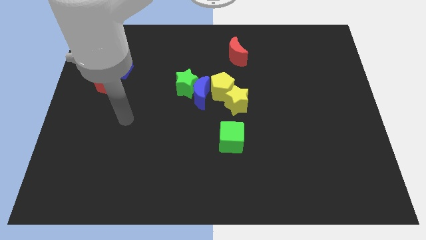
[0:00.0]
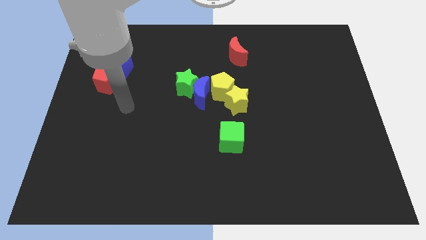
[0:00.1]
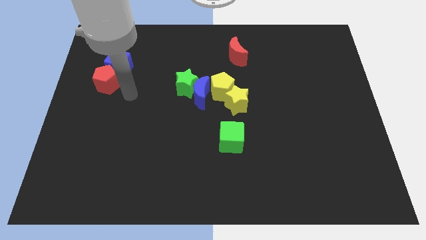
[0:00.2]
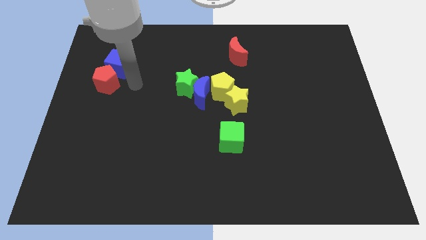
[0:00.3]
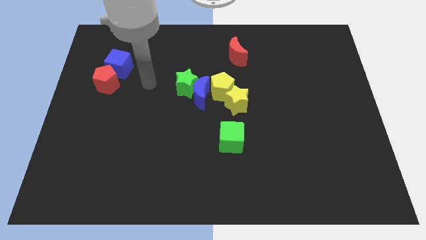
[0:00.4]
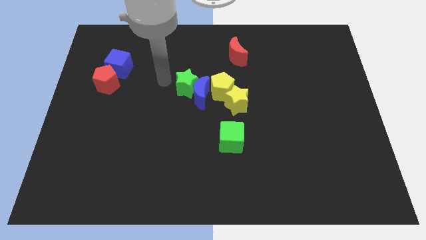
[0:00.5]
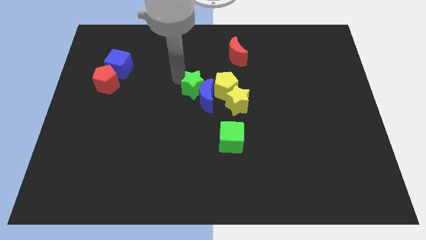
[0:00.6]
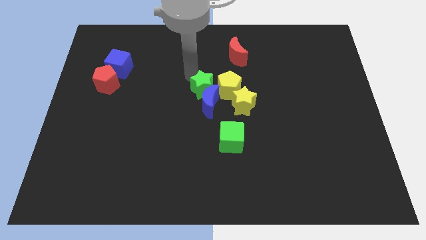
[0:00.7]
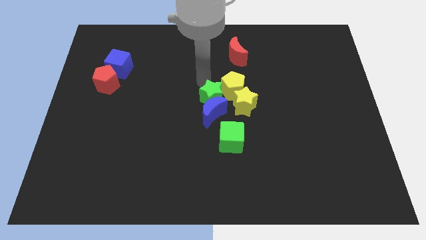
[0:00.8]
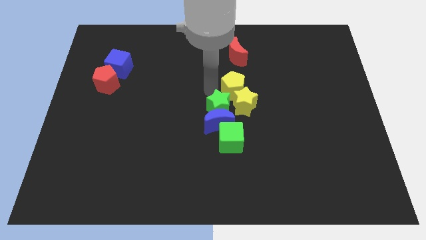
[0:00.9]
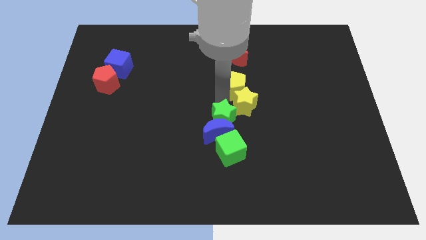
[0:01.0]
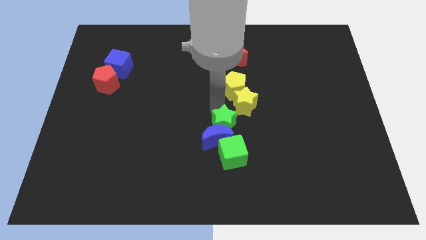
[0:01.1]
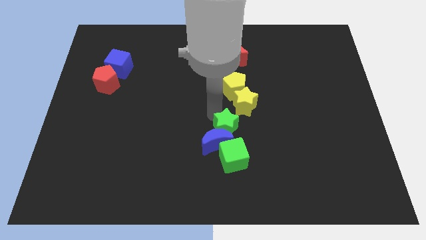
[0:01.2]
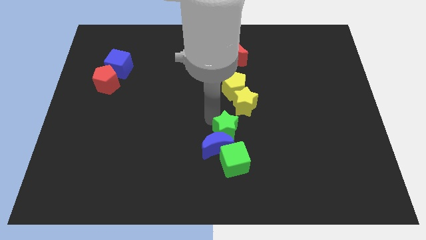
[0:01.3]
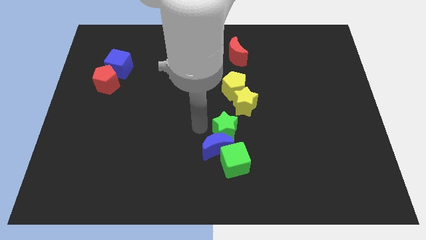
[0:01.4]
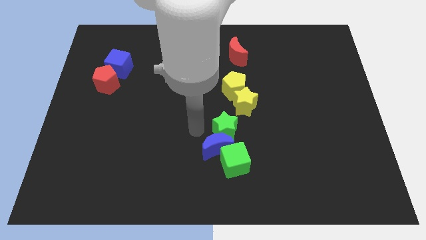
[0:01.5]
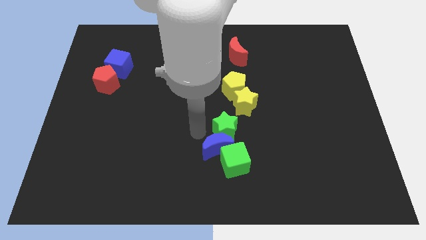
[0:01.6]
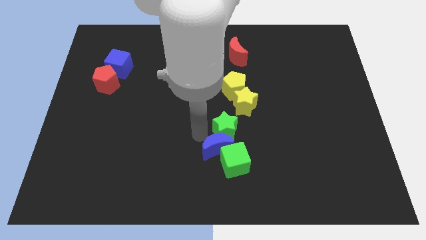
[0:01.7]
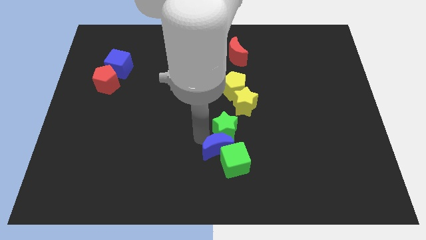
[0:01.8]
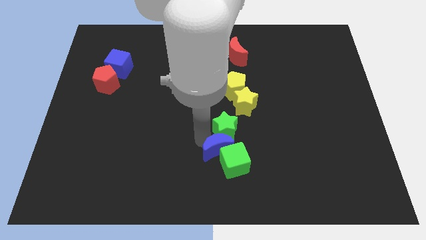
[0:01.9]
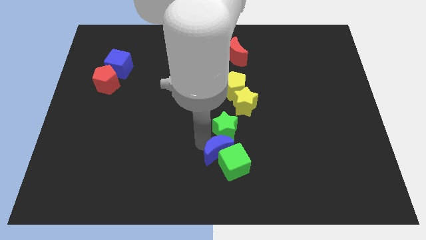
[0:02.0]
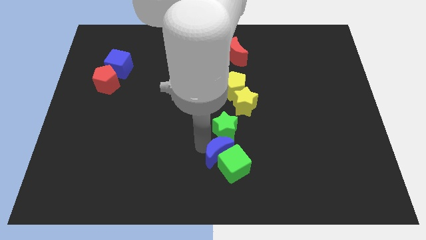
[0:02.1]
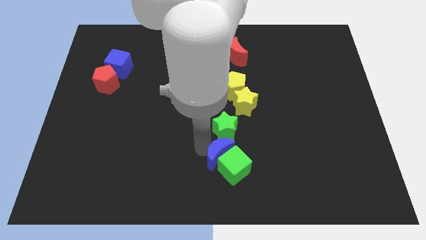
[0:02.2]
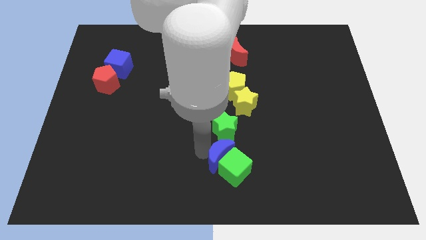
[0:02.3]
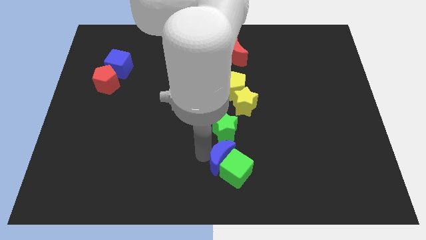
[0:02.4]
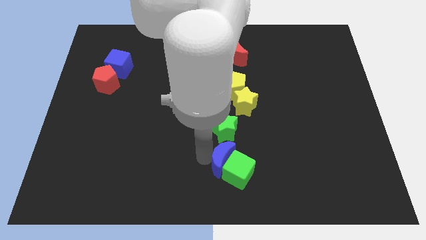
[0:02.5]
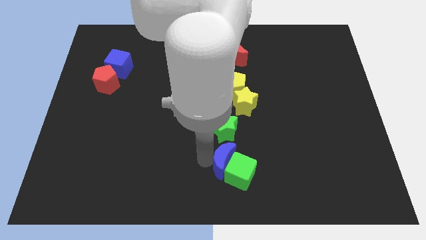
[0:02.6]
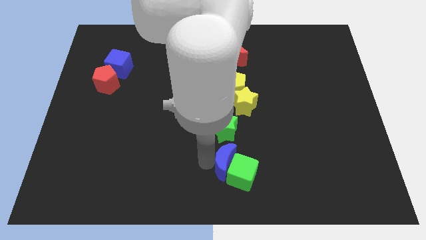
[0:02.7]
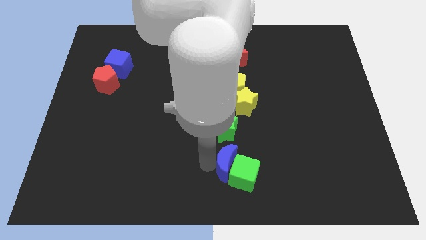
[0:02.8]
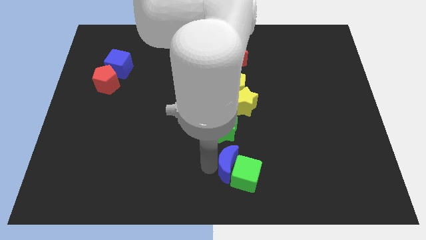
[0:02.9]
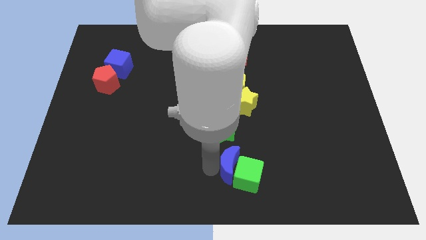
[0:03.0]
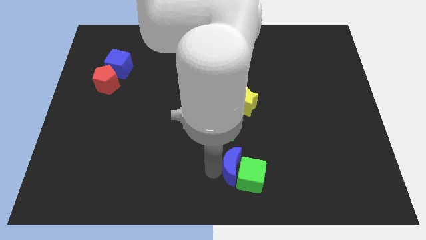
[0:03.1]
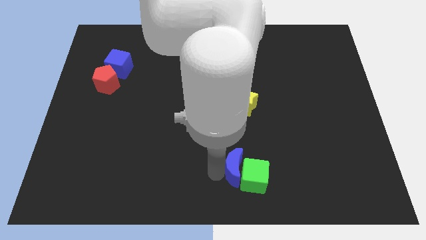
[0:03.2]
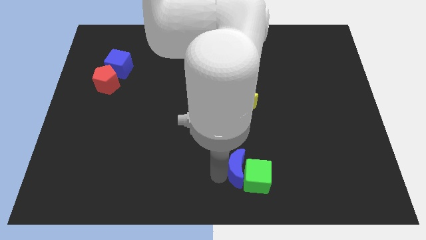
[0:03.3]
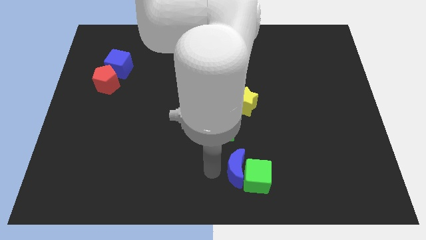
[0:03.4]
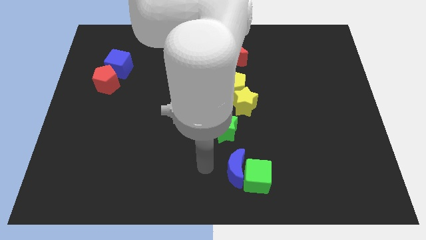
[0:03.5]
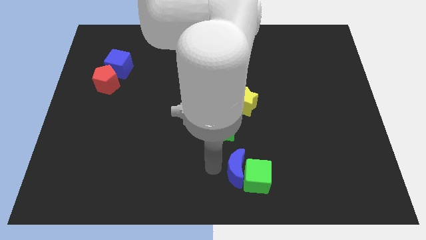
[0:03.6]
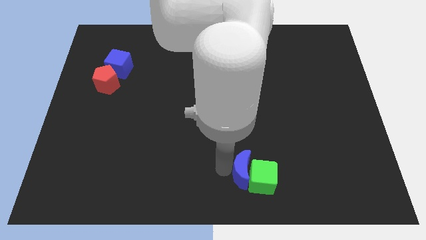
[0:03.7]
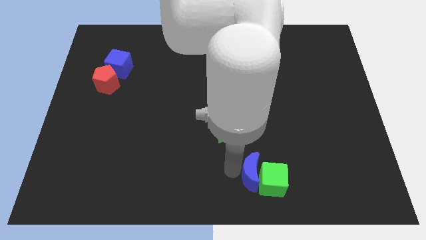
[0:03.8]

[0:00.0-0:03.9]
move the blue moon down and to the right diagonally

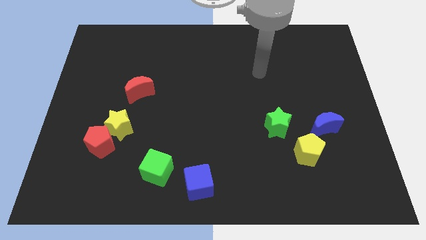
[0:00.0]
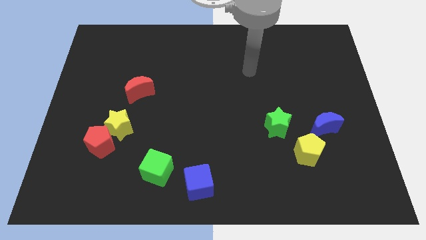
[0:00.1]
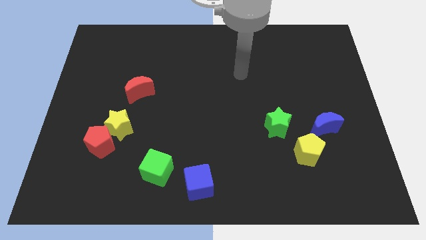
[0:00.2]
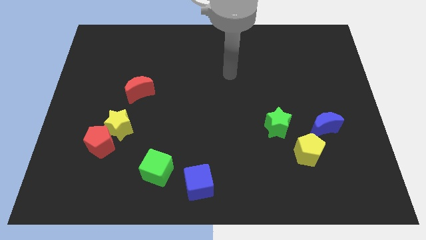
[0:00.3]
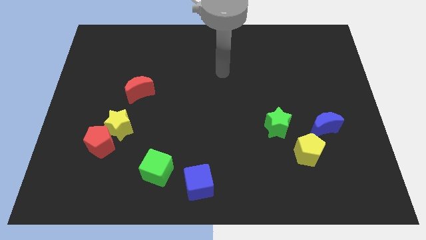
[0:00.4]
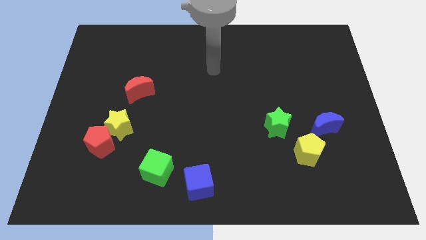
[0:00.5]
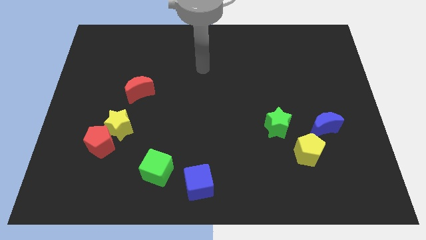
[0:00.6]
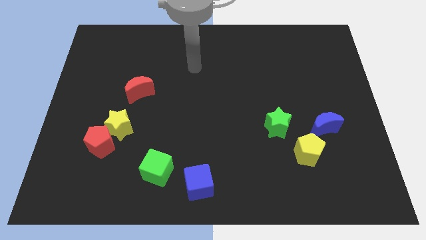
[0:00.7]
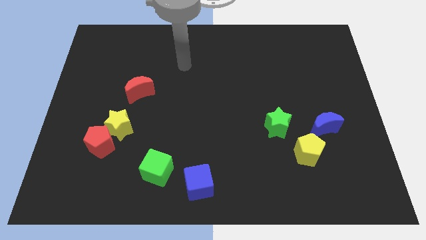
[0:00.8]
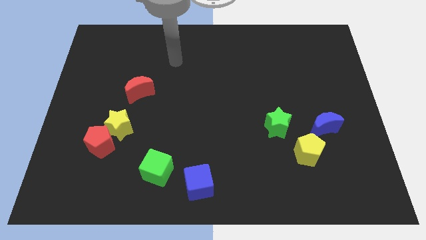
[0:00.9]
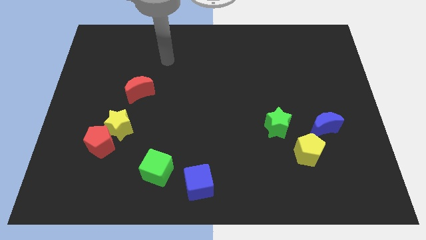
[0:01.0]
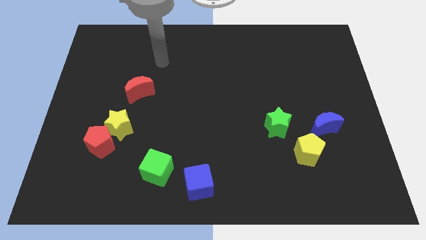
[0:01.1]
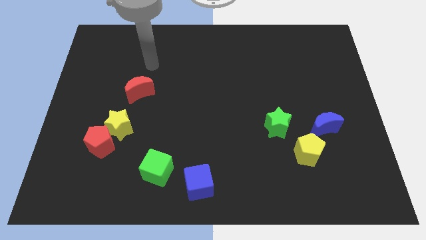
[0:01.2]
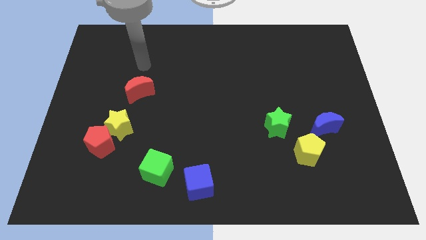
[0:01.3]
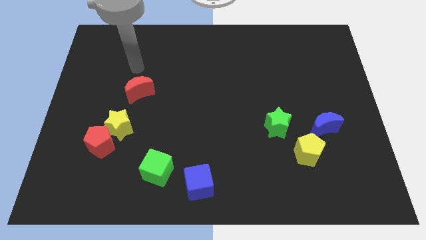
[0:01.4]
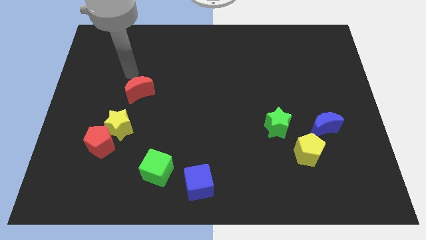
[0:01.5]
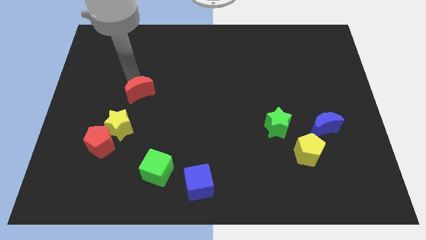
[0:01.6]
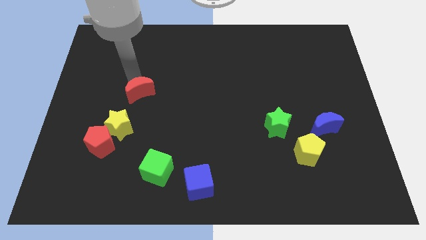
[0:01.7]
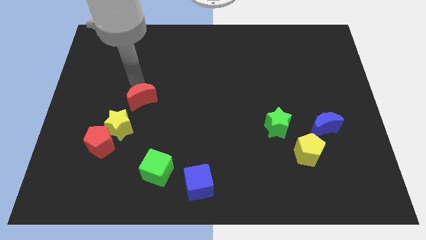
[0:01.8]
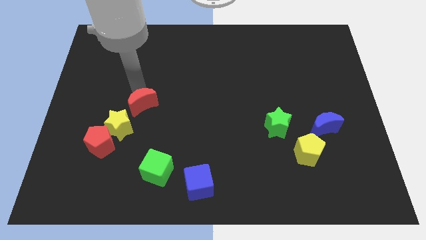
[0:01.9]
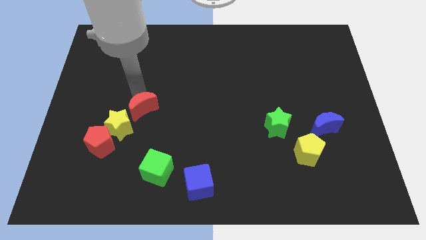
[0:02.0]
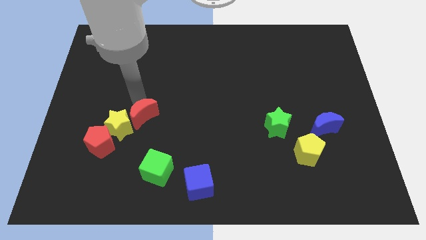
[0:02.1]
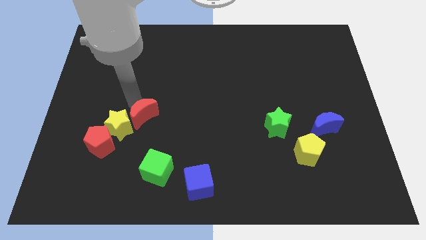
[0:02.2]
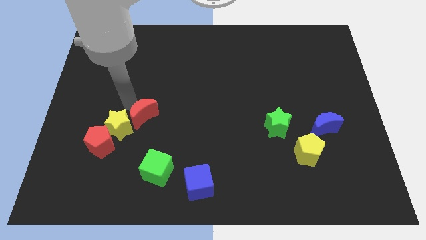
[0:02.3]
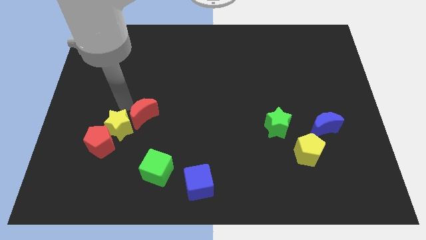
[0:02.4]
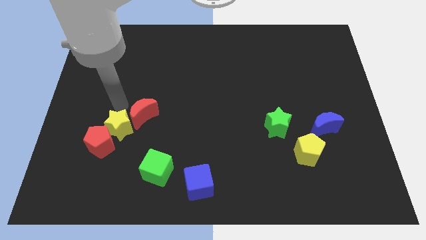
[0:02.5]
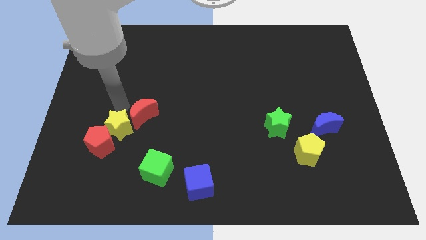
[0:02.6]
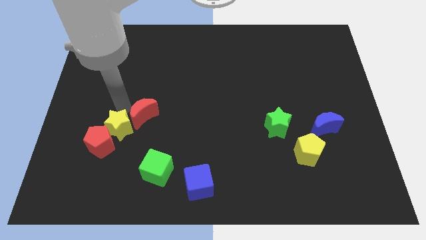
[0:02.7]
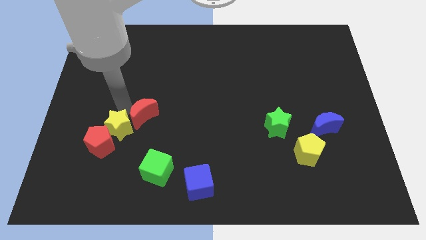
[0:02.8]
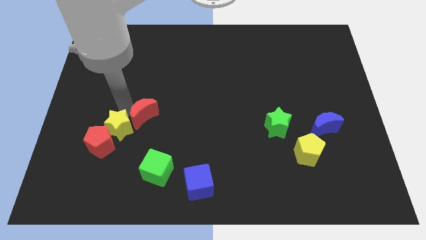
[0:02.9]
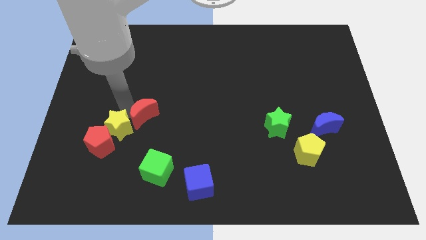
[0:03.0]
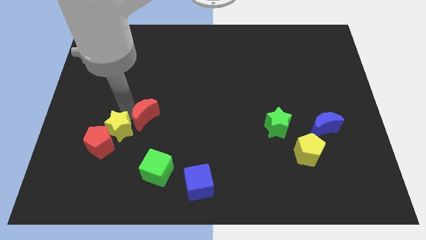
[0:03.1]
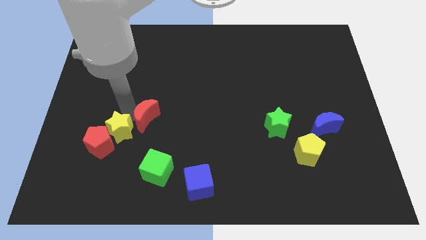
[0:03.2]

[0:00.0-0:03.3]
slide the red moon diagonally down and right a little

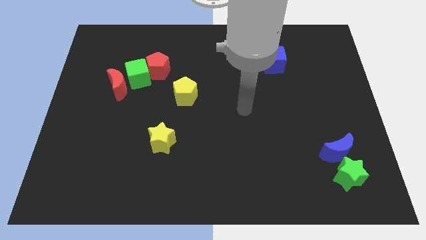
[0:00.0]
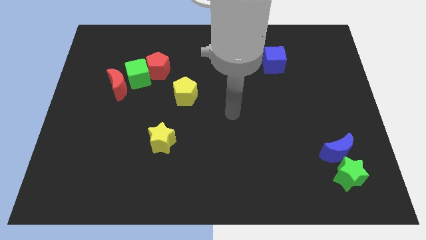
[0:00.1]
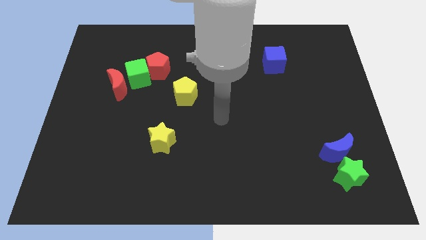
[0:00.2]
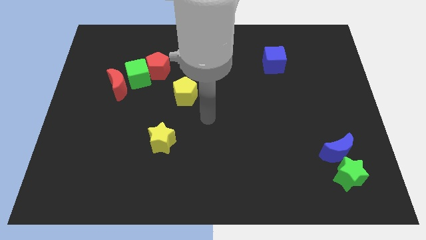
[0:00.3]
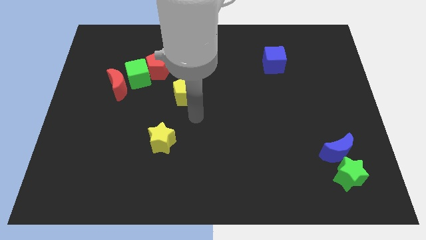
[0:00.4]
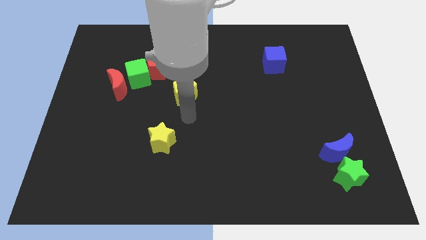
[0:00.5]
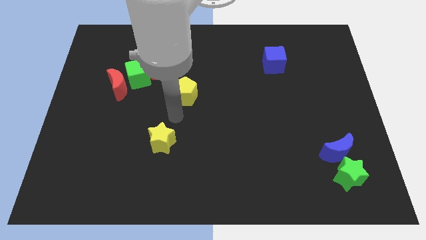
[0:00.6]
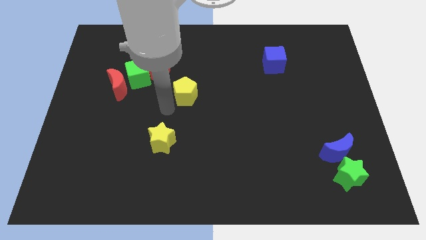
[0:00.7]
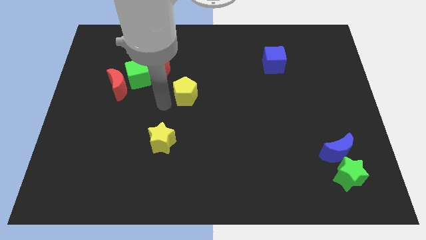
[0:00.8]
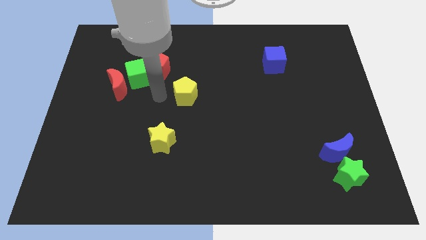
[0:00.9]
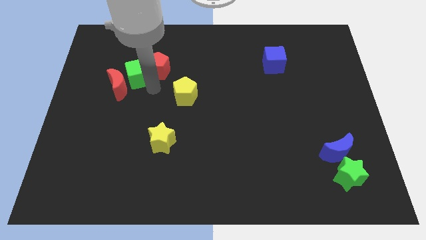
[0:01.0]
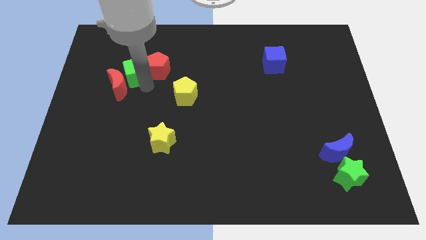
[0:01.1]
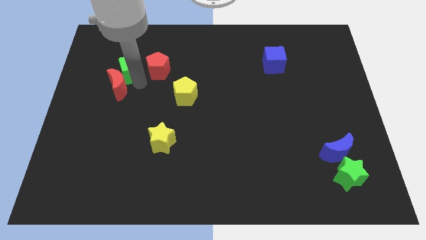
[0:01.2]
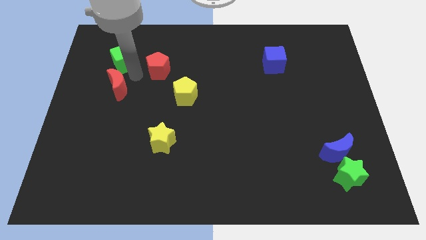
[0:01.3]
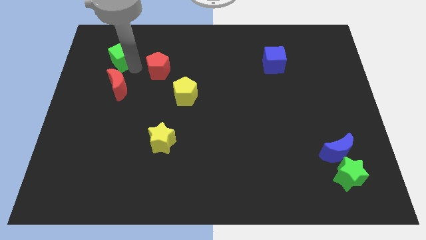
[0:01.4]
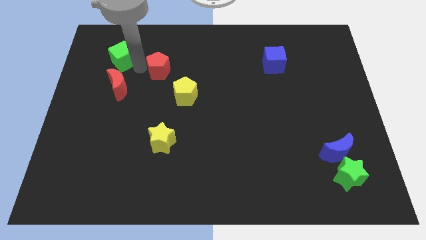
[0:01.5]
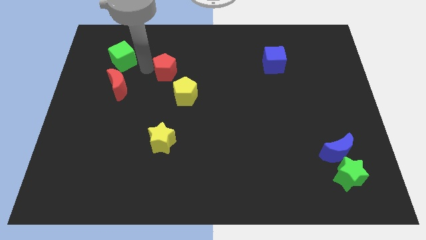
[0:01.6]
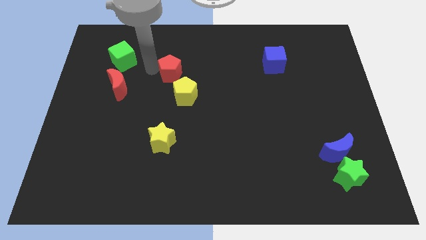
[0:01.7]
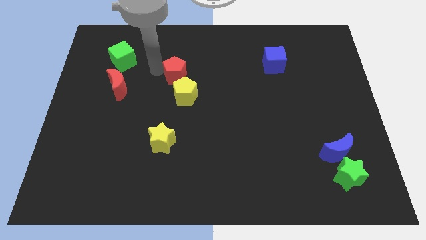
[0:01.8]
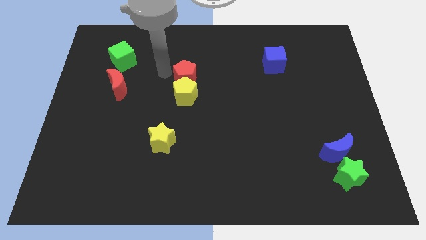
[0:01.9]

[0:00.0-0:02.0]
move the red pentagon right slightly
